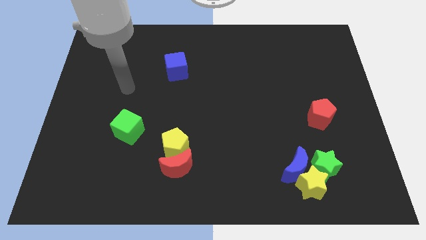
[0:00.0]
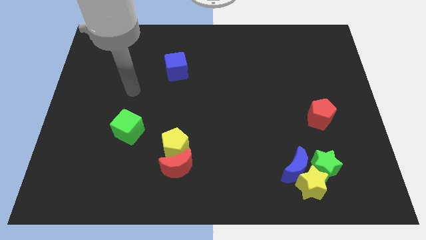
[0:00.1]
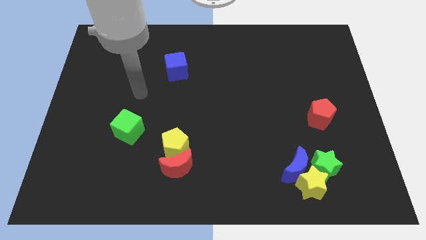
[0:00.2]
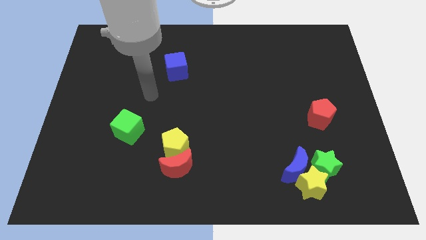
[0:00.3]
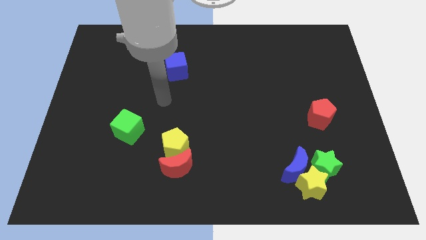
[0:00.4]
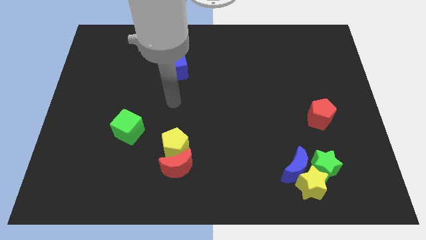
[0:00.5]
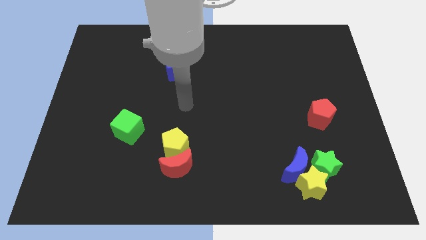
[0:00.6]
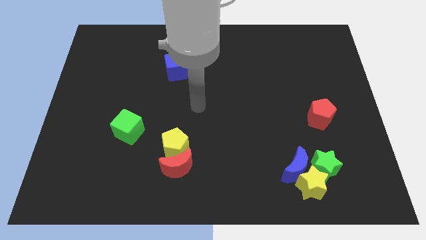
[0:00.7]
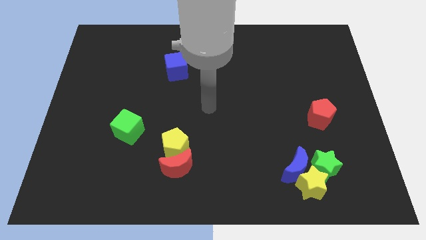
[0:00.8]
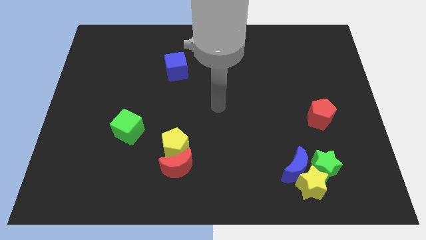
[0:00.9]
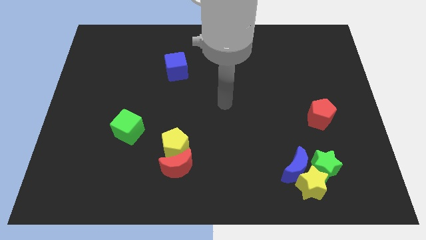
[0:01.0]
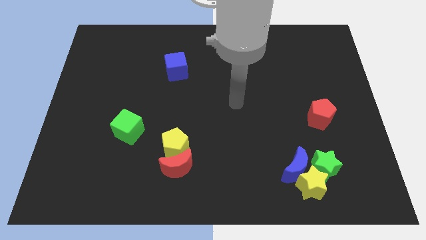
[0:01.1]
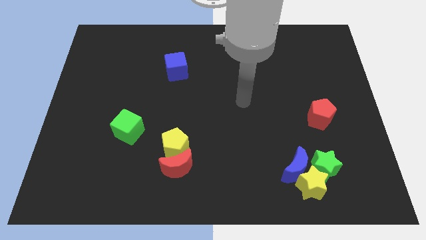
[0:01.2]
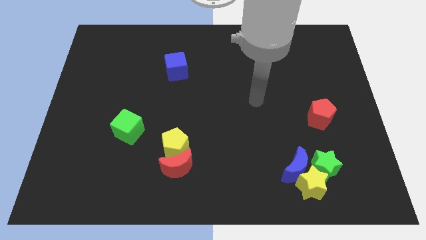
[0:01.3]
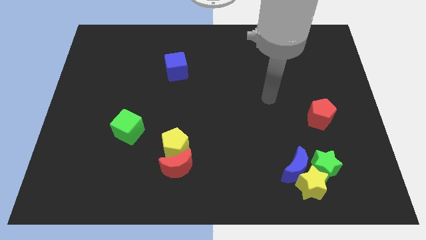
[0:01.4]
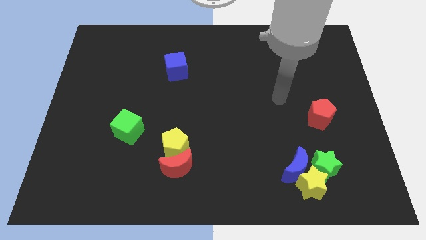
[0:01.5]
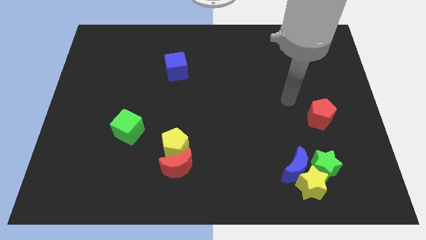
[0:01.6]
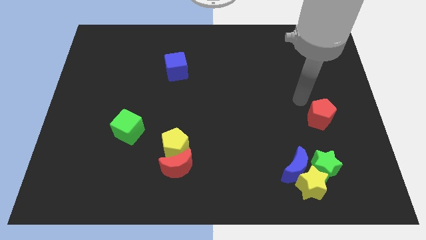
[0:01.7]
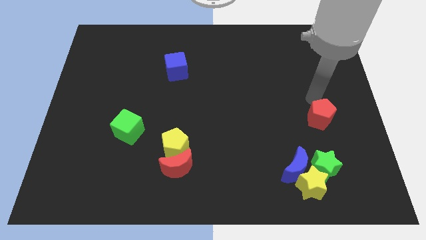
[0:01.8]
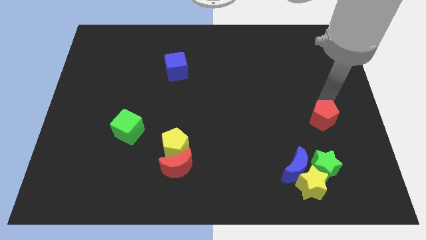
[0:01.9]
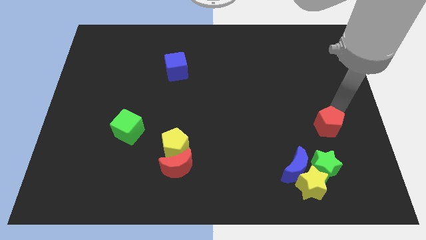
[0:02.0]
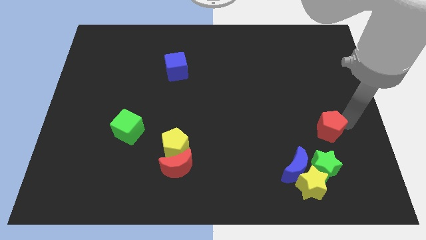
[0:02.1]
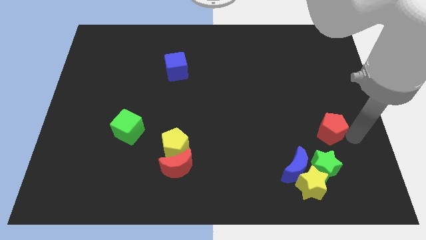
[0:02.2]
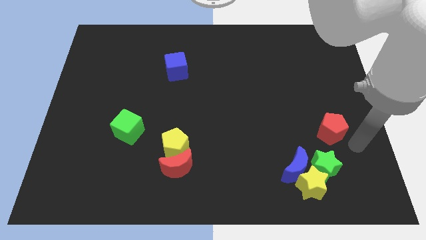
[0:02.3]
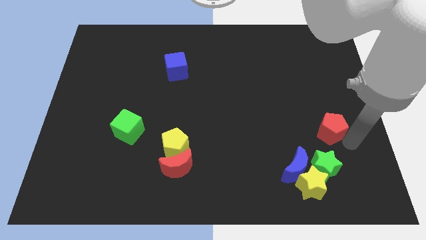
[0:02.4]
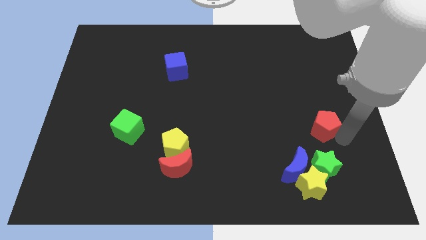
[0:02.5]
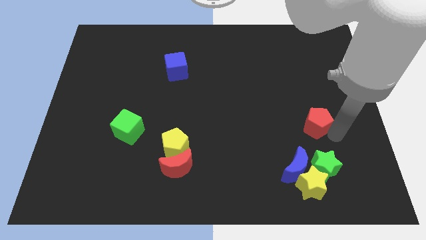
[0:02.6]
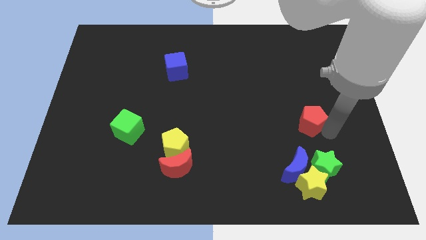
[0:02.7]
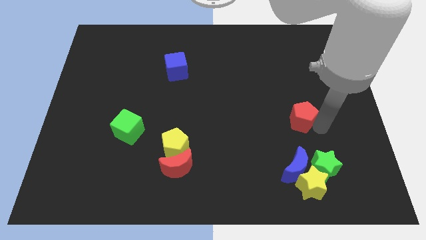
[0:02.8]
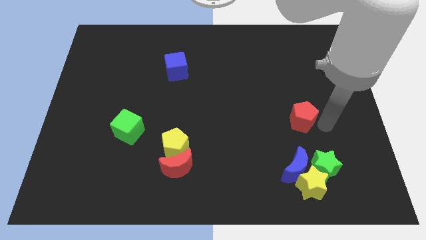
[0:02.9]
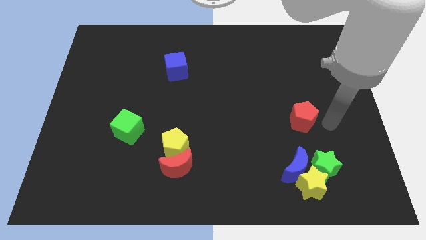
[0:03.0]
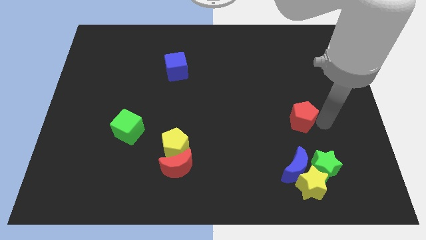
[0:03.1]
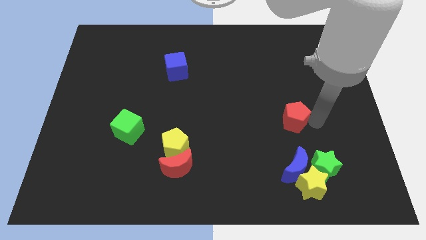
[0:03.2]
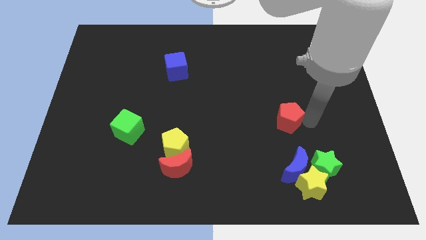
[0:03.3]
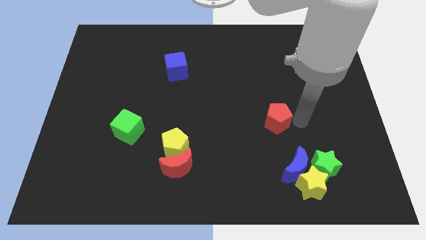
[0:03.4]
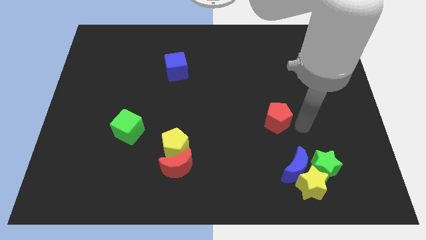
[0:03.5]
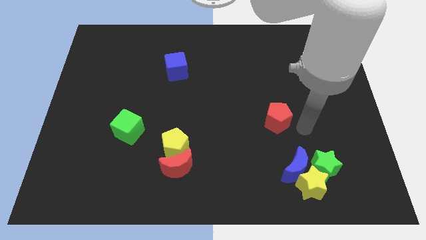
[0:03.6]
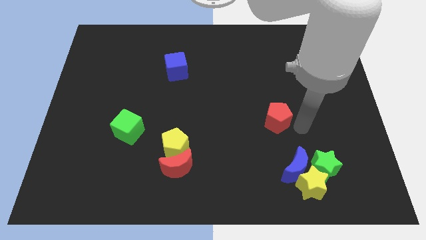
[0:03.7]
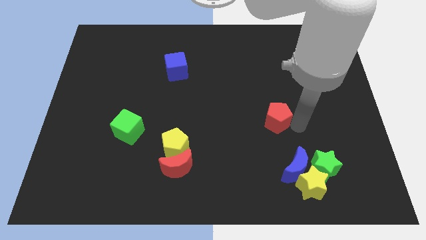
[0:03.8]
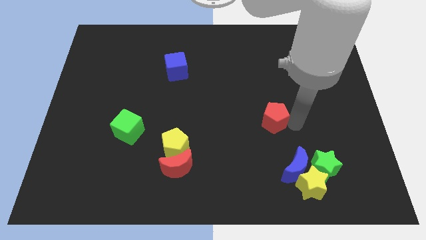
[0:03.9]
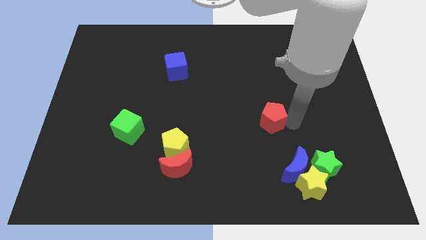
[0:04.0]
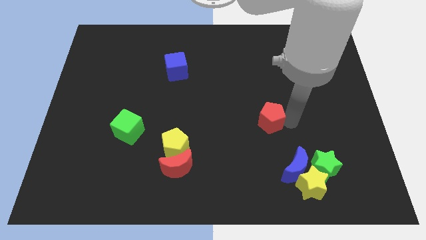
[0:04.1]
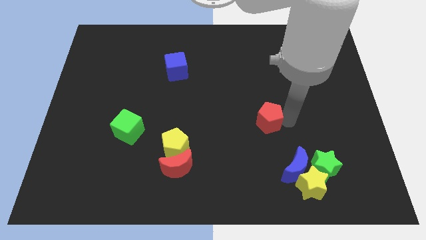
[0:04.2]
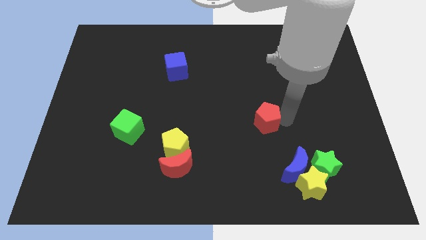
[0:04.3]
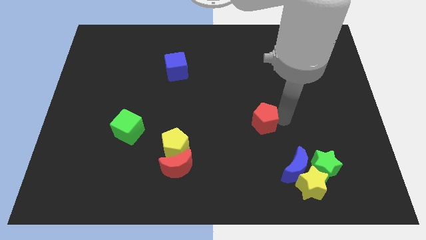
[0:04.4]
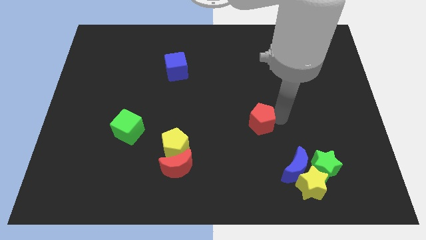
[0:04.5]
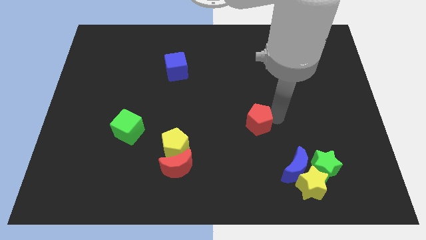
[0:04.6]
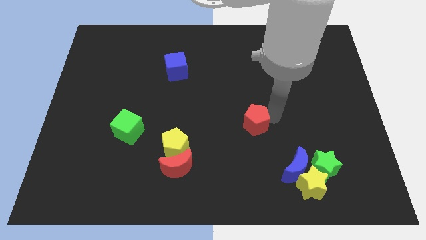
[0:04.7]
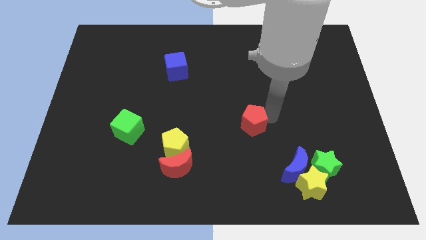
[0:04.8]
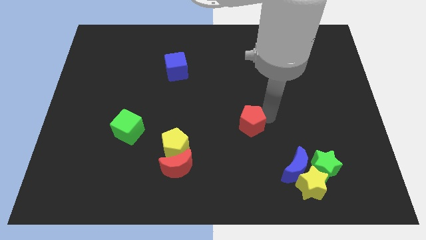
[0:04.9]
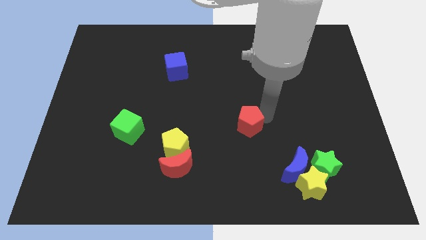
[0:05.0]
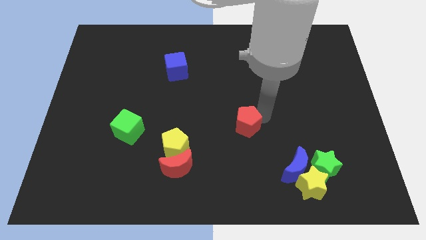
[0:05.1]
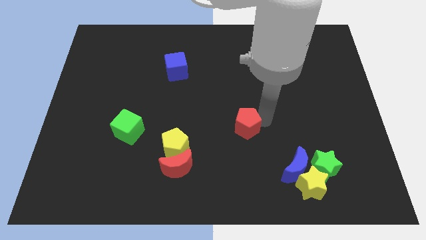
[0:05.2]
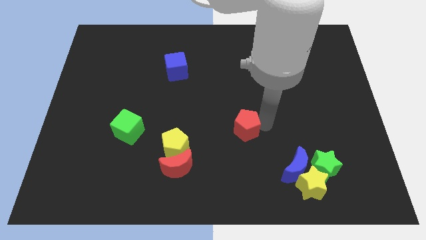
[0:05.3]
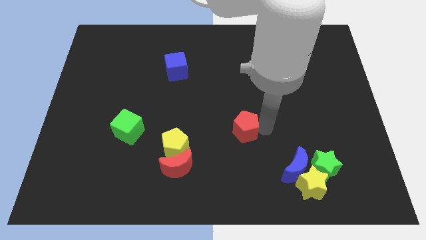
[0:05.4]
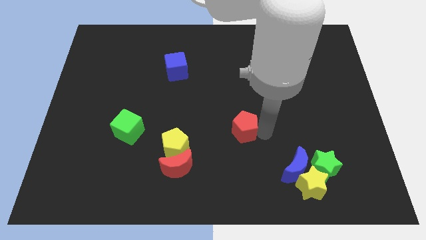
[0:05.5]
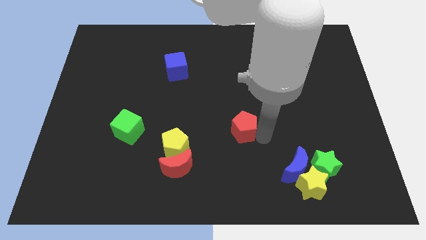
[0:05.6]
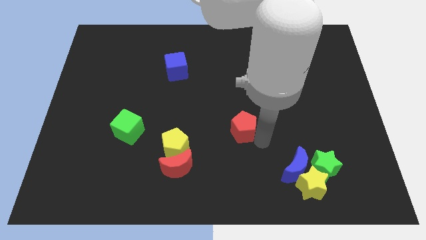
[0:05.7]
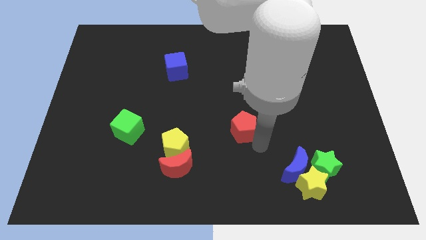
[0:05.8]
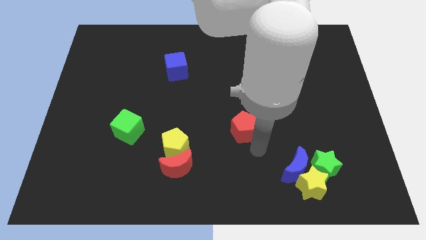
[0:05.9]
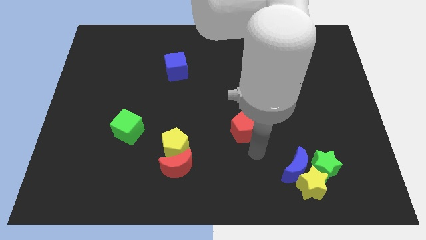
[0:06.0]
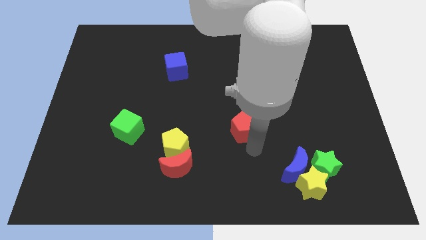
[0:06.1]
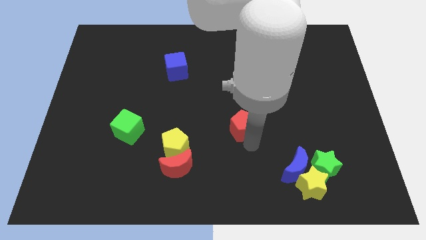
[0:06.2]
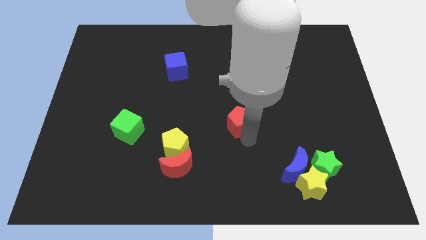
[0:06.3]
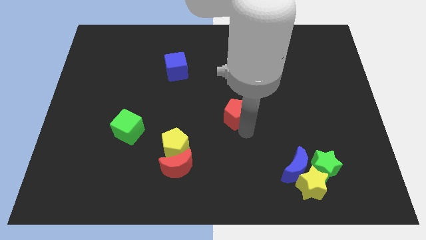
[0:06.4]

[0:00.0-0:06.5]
slide the red pentagon to the left

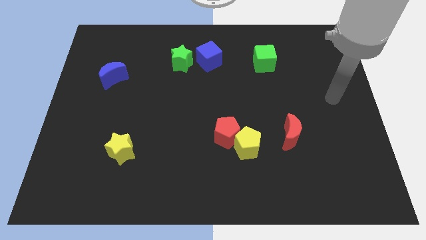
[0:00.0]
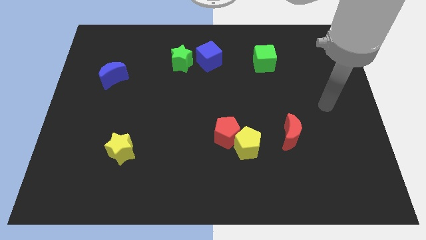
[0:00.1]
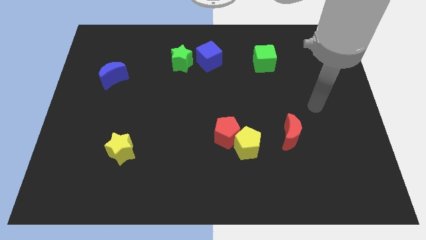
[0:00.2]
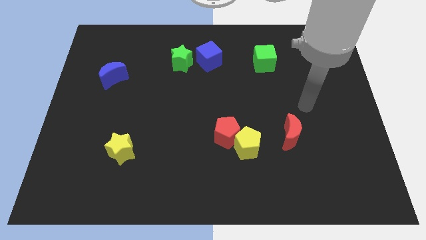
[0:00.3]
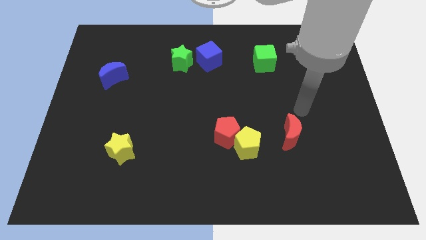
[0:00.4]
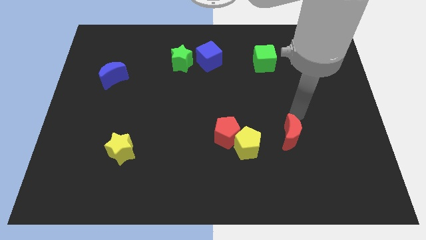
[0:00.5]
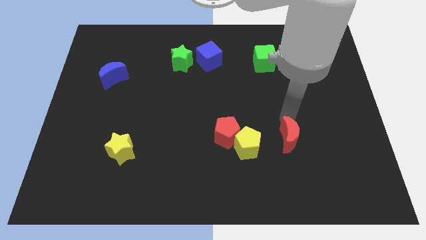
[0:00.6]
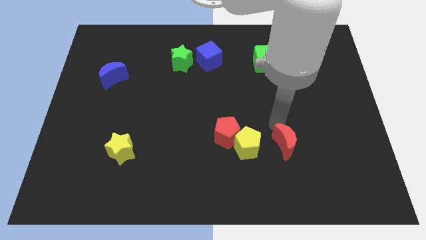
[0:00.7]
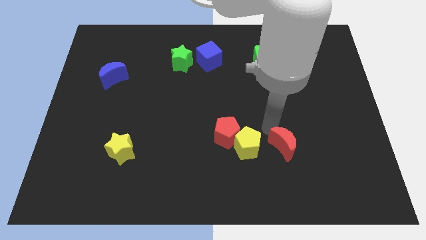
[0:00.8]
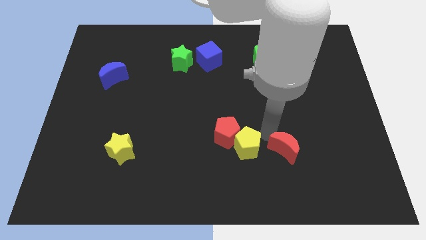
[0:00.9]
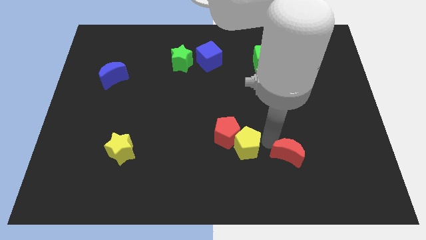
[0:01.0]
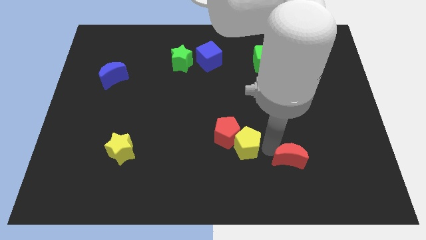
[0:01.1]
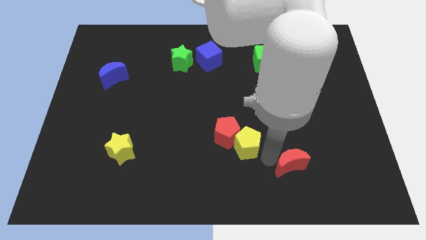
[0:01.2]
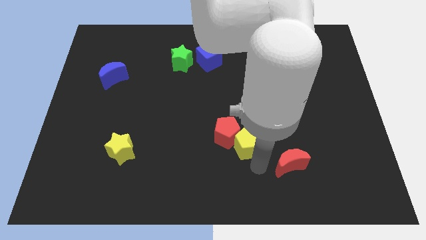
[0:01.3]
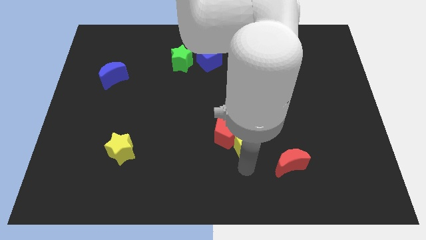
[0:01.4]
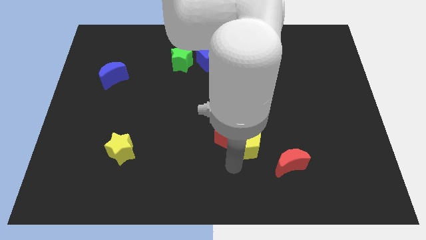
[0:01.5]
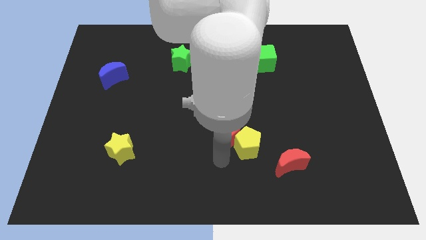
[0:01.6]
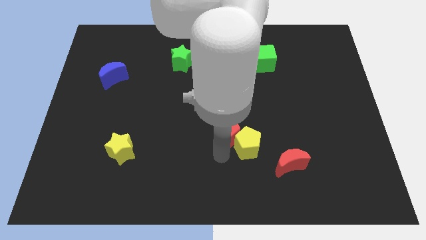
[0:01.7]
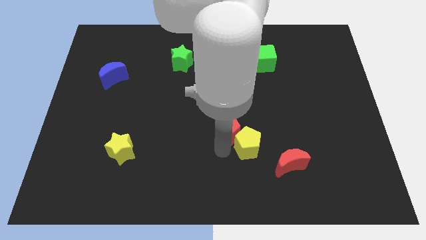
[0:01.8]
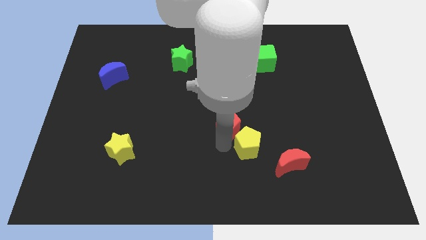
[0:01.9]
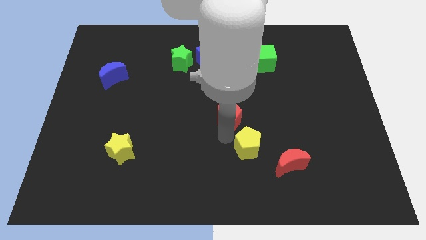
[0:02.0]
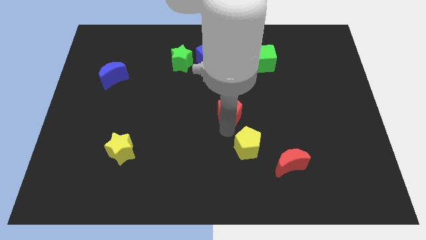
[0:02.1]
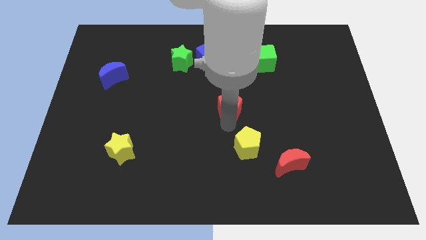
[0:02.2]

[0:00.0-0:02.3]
slide the red pentagon a little upwards
